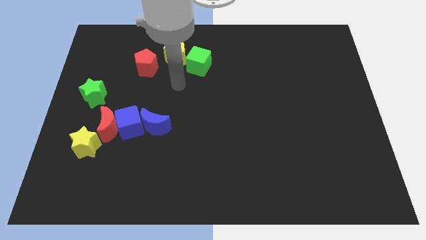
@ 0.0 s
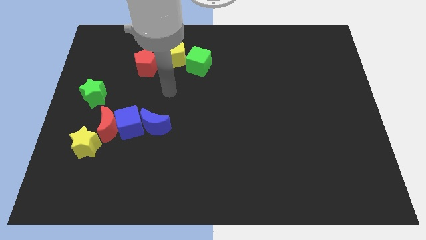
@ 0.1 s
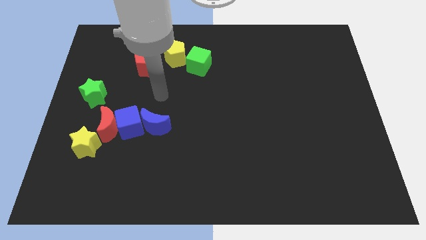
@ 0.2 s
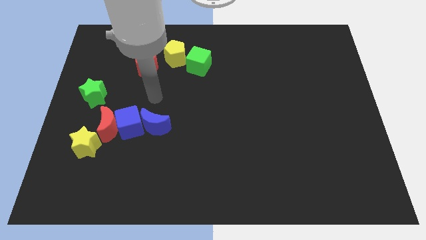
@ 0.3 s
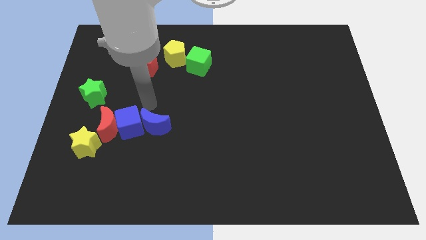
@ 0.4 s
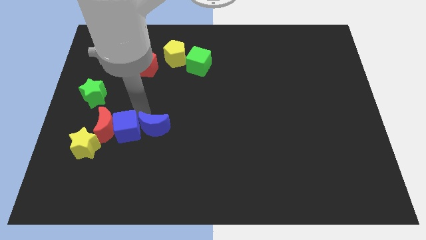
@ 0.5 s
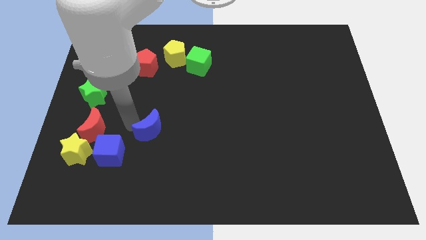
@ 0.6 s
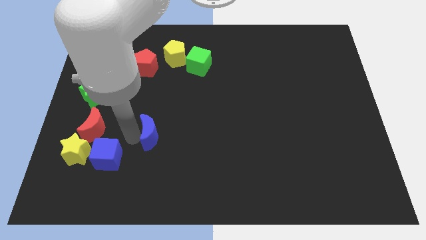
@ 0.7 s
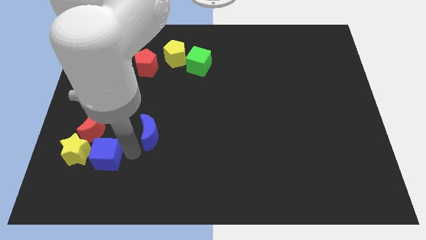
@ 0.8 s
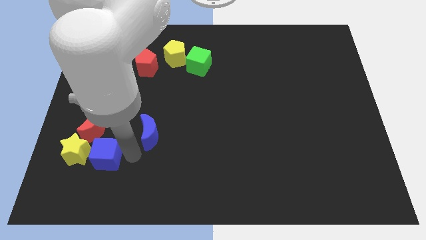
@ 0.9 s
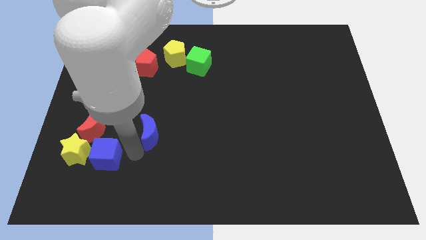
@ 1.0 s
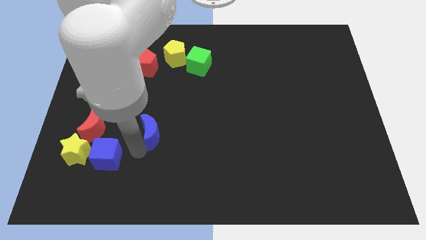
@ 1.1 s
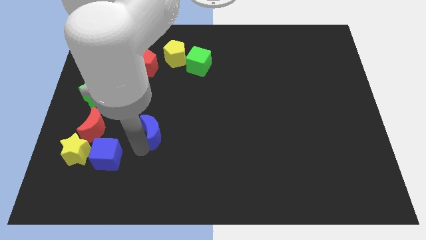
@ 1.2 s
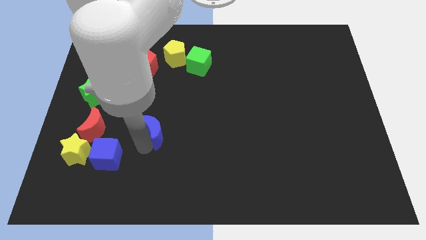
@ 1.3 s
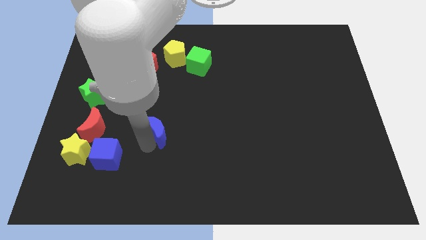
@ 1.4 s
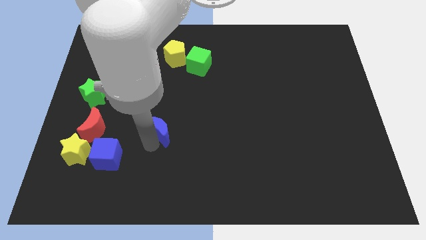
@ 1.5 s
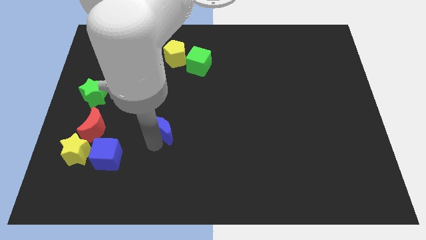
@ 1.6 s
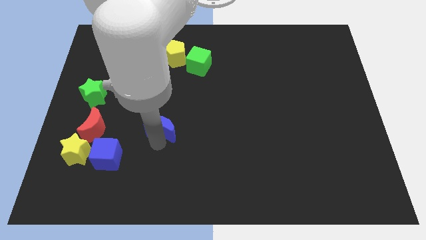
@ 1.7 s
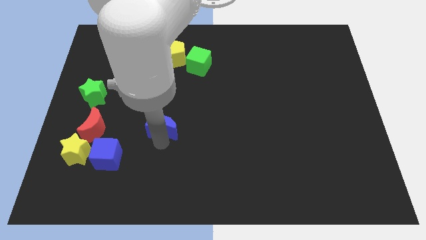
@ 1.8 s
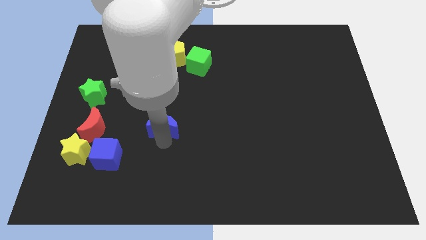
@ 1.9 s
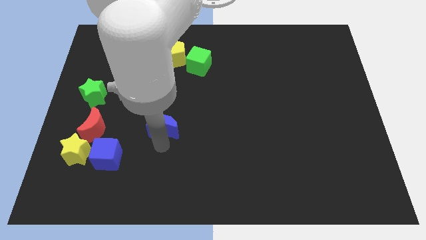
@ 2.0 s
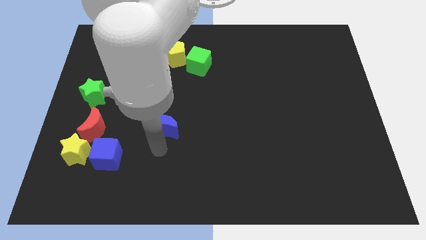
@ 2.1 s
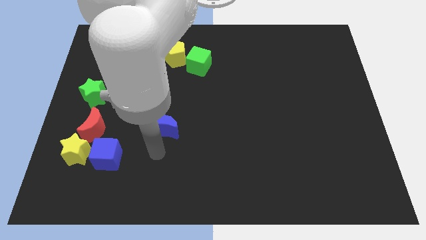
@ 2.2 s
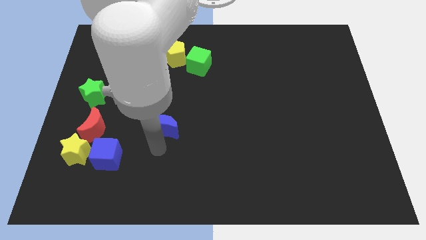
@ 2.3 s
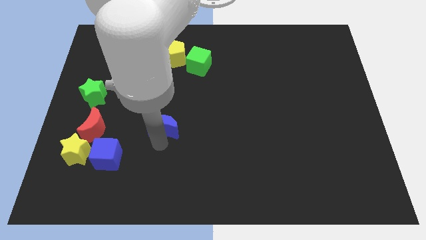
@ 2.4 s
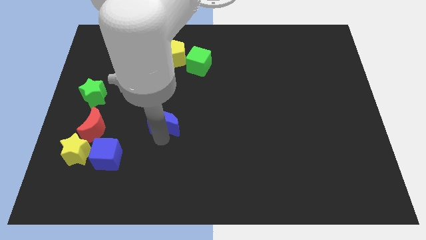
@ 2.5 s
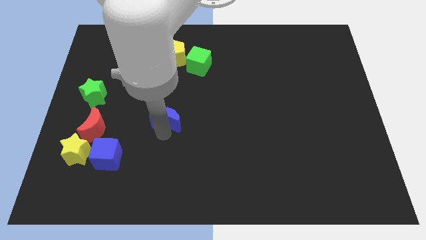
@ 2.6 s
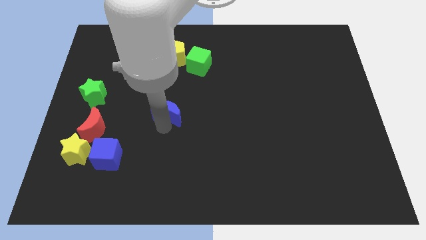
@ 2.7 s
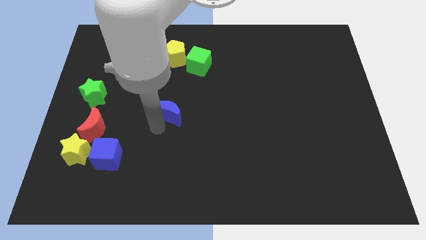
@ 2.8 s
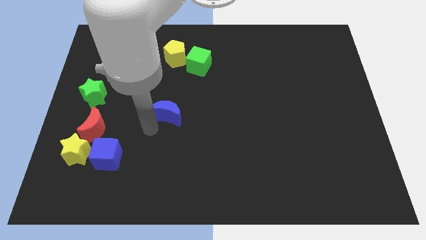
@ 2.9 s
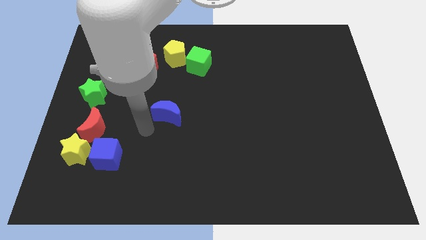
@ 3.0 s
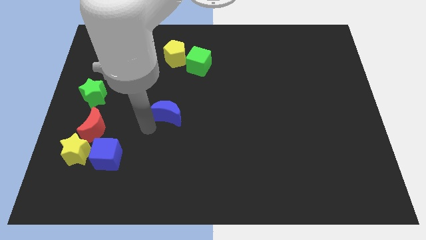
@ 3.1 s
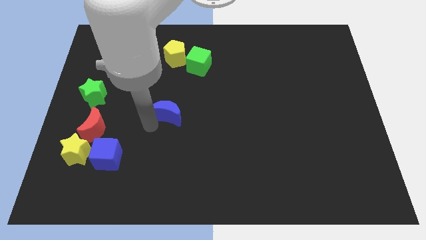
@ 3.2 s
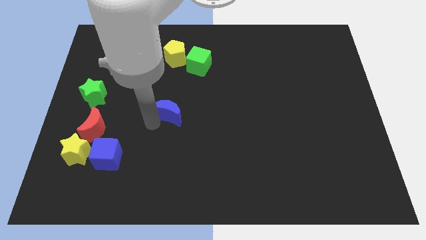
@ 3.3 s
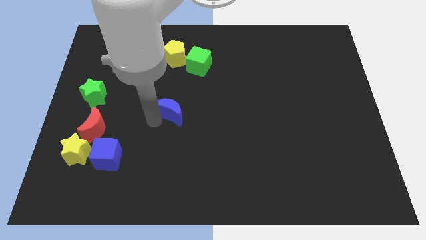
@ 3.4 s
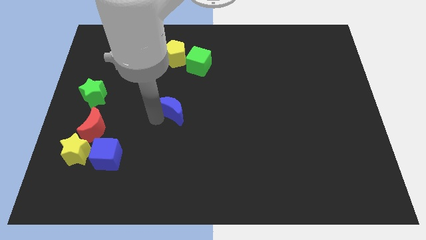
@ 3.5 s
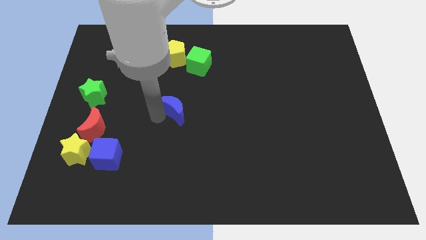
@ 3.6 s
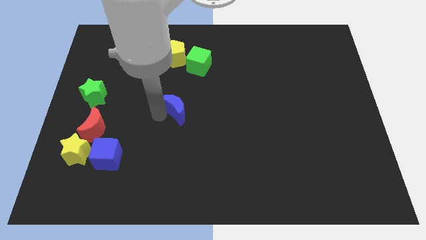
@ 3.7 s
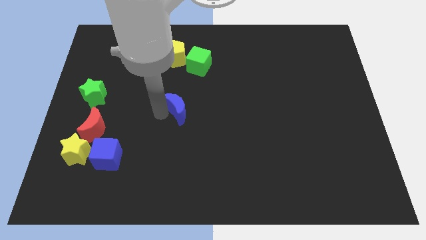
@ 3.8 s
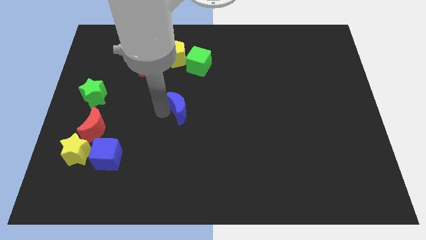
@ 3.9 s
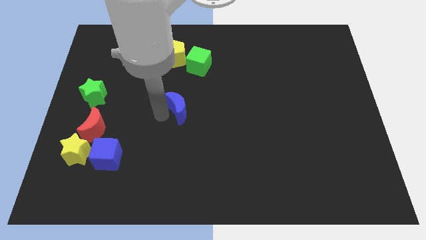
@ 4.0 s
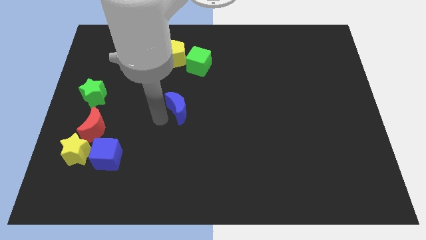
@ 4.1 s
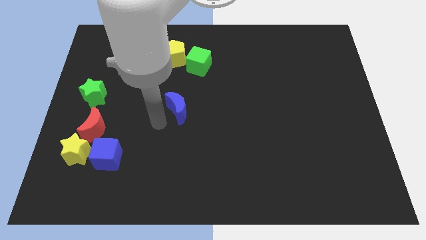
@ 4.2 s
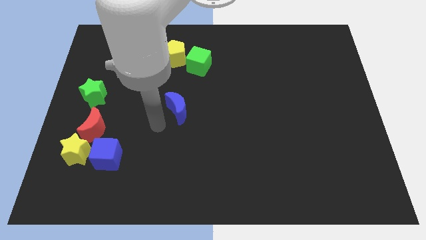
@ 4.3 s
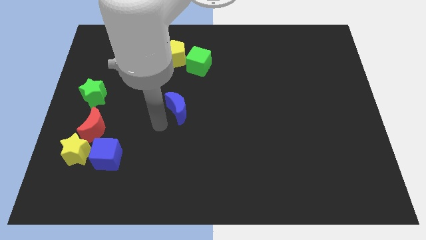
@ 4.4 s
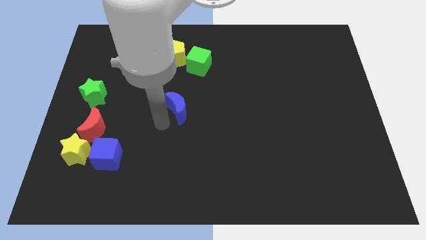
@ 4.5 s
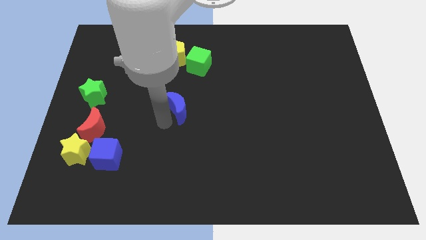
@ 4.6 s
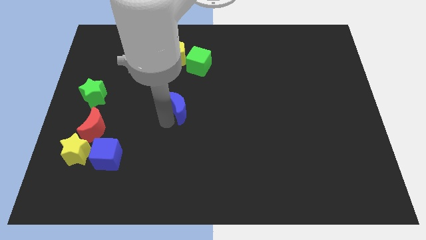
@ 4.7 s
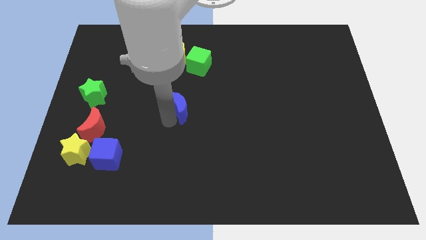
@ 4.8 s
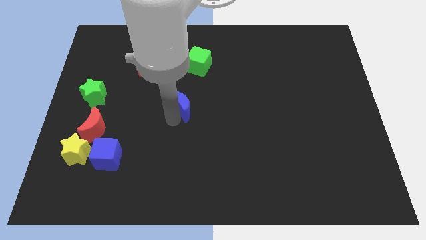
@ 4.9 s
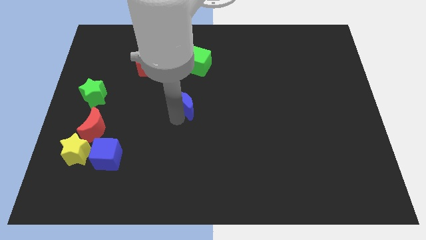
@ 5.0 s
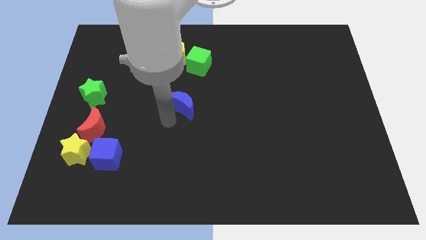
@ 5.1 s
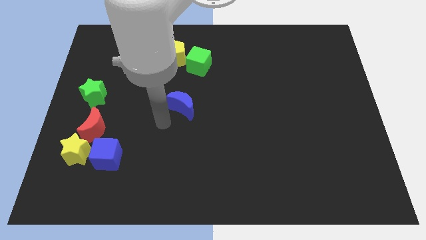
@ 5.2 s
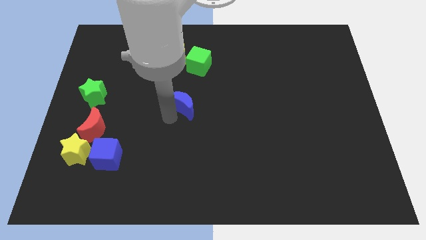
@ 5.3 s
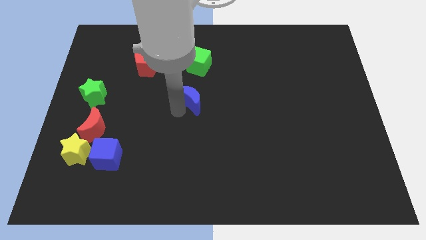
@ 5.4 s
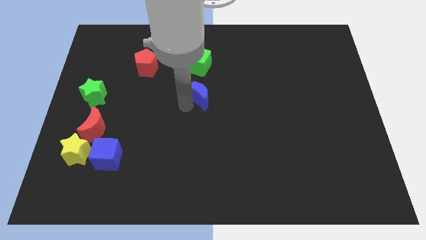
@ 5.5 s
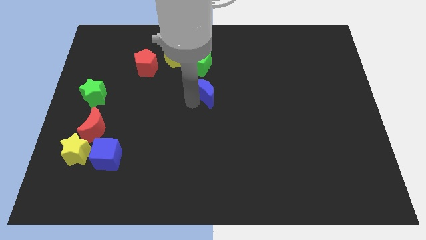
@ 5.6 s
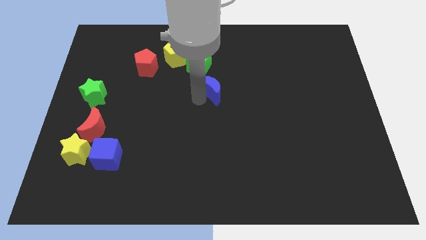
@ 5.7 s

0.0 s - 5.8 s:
move the blue moon to the bottom right of the green cube

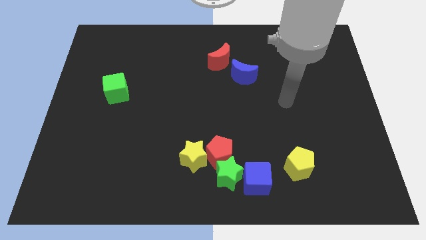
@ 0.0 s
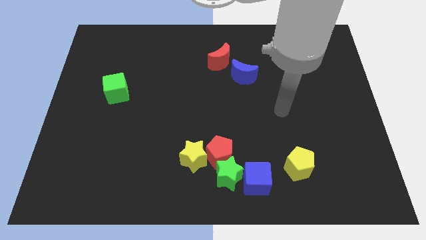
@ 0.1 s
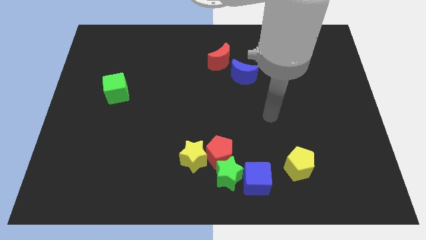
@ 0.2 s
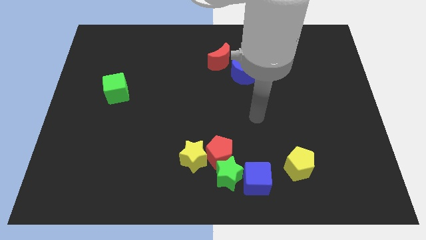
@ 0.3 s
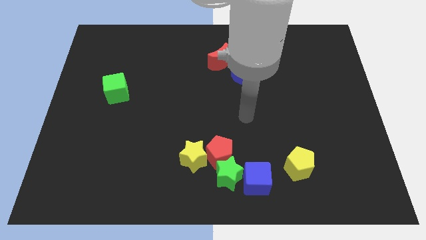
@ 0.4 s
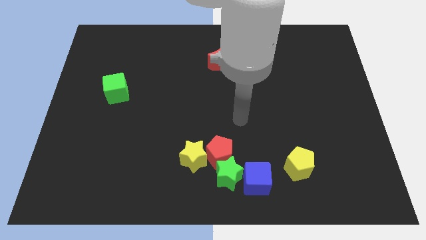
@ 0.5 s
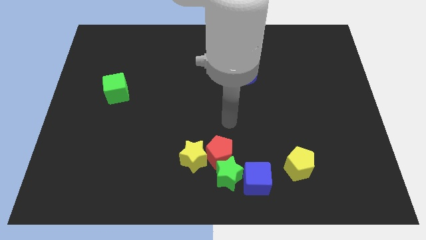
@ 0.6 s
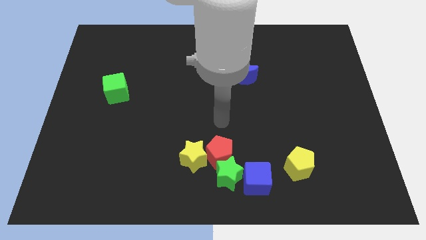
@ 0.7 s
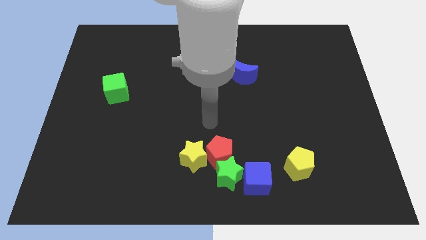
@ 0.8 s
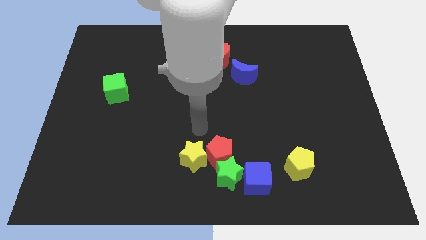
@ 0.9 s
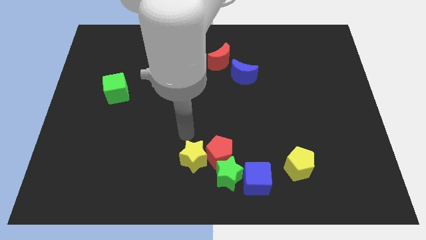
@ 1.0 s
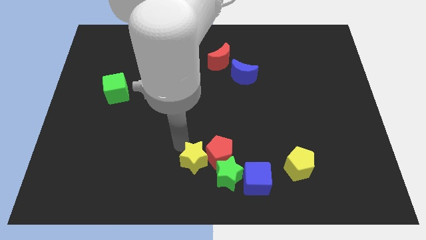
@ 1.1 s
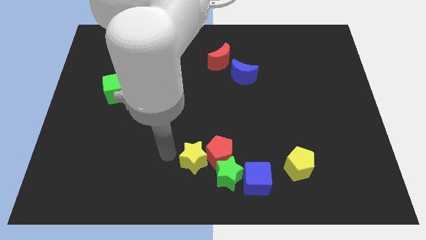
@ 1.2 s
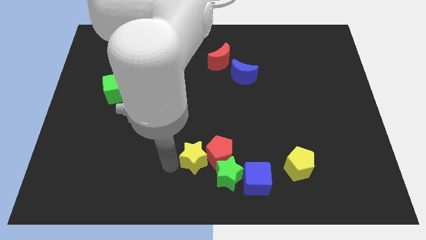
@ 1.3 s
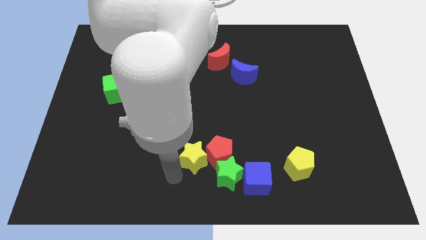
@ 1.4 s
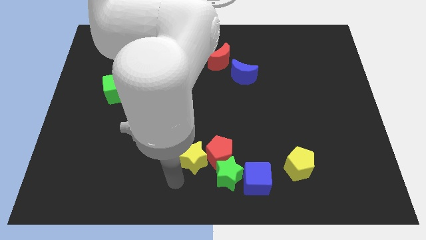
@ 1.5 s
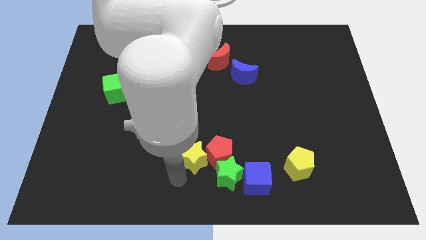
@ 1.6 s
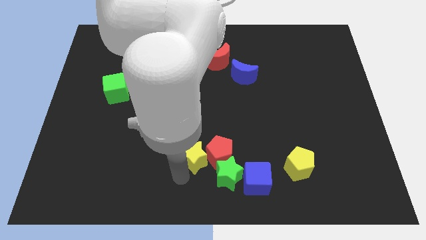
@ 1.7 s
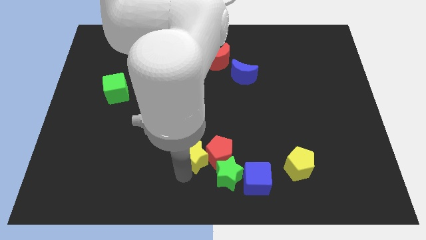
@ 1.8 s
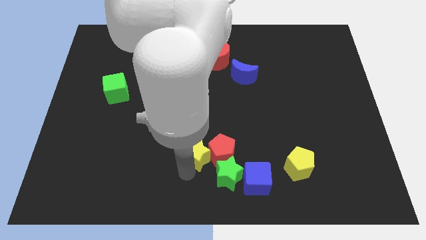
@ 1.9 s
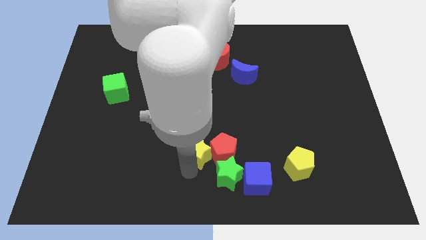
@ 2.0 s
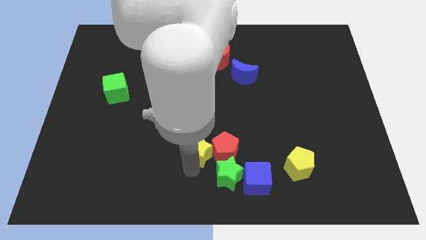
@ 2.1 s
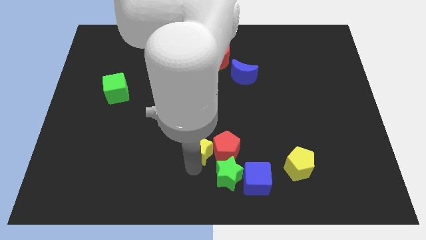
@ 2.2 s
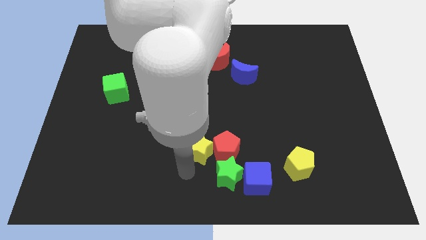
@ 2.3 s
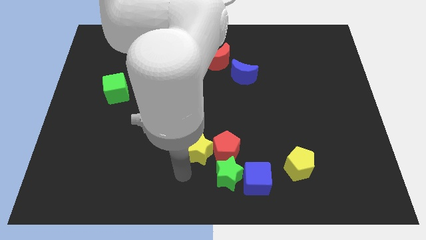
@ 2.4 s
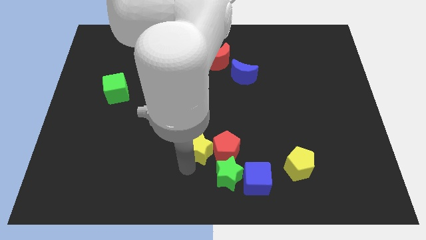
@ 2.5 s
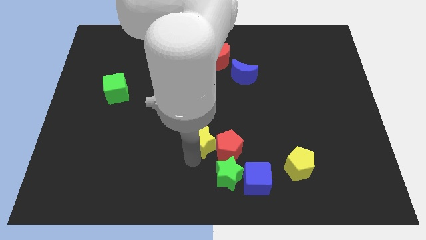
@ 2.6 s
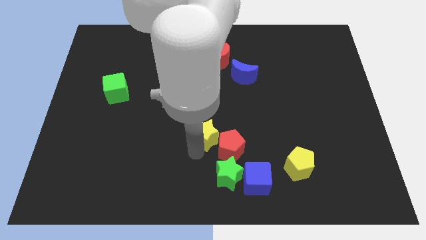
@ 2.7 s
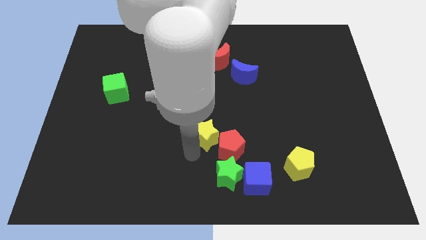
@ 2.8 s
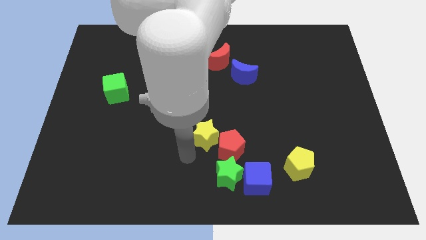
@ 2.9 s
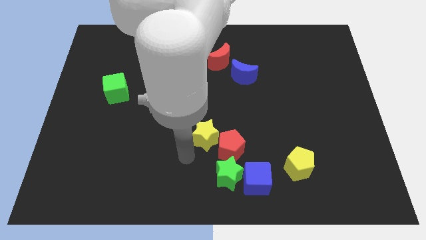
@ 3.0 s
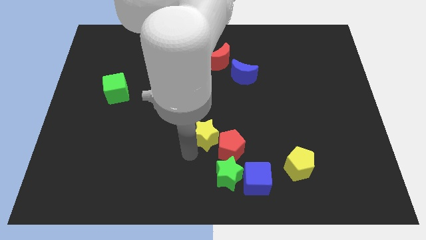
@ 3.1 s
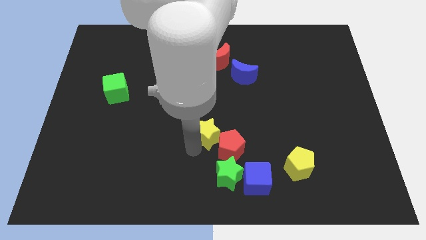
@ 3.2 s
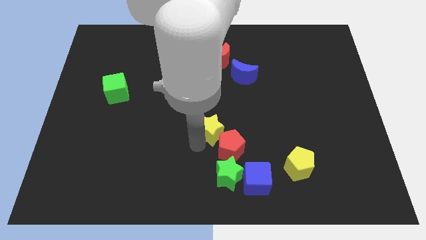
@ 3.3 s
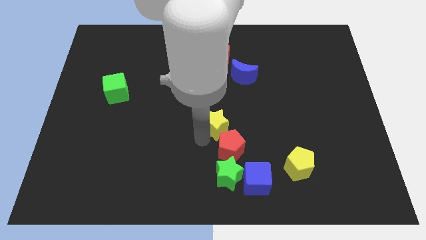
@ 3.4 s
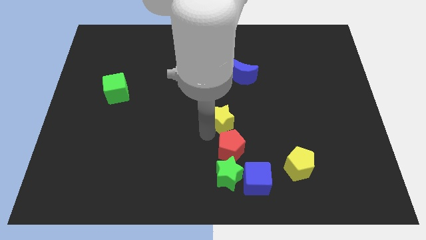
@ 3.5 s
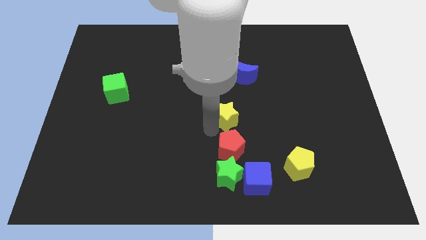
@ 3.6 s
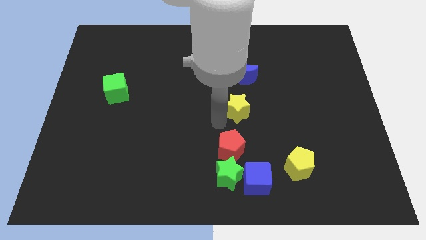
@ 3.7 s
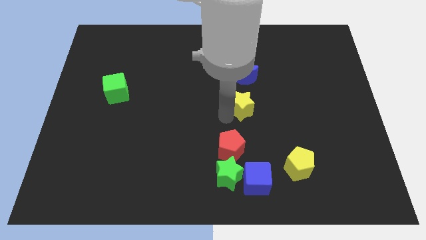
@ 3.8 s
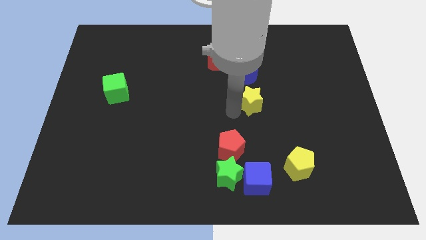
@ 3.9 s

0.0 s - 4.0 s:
put the yellow star to the bottom right of the blue moon
